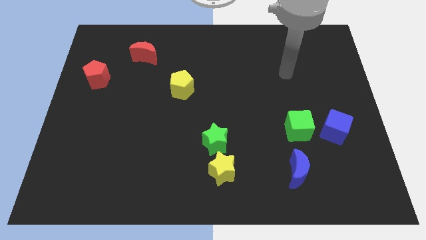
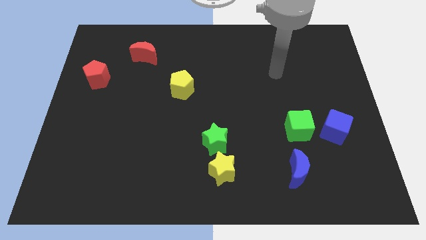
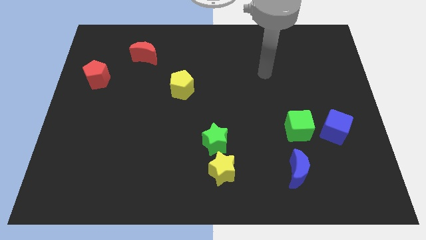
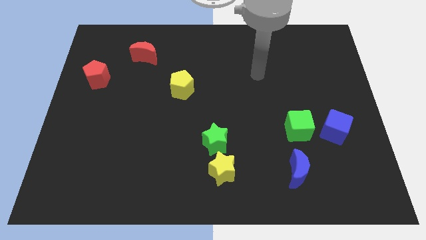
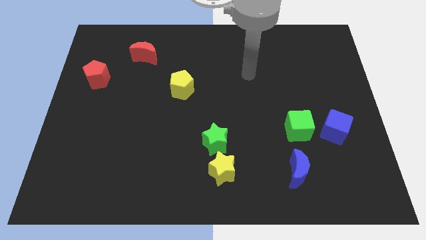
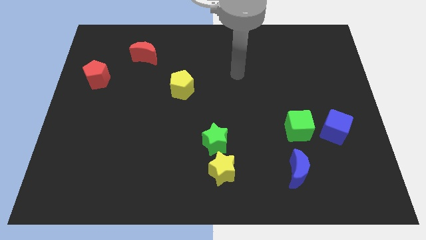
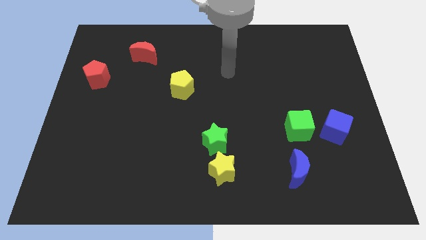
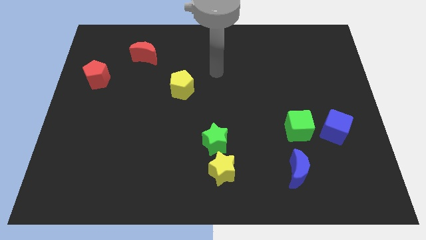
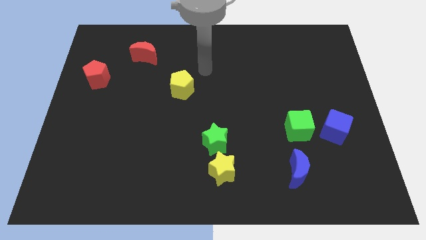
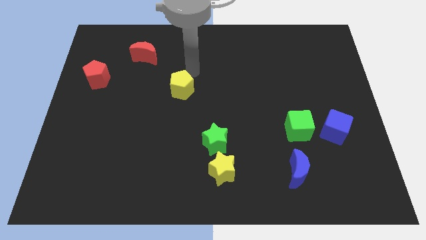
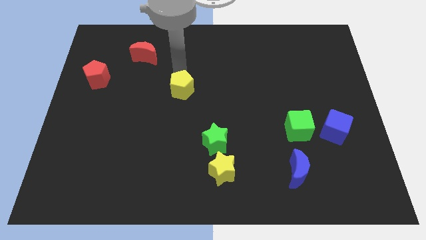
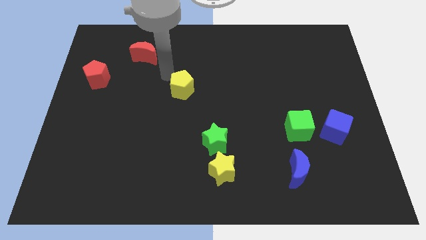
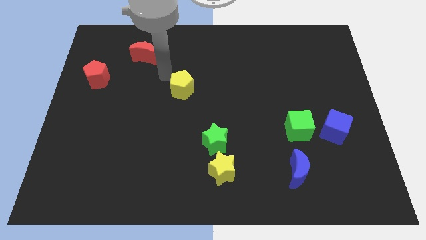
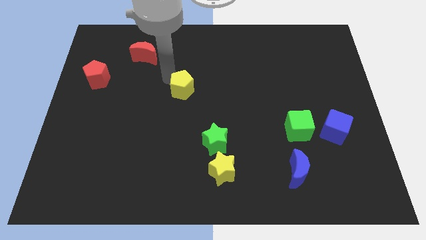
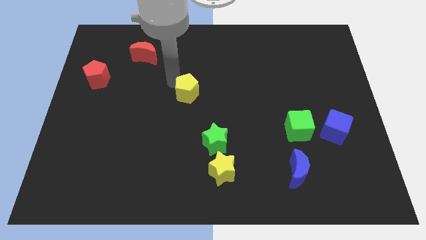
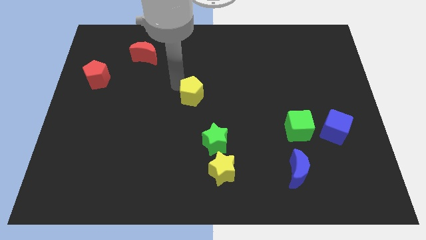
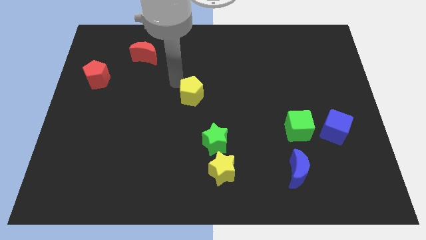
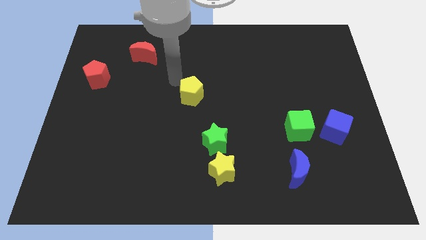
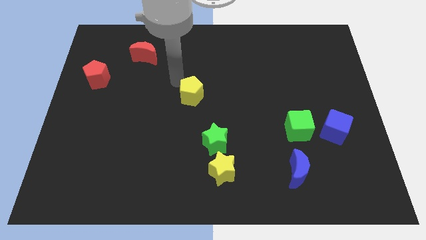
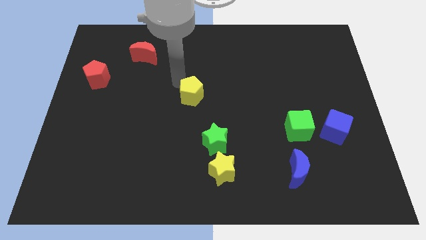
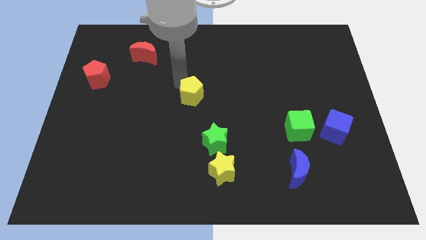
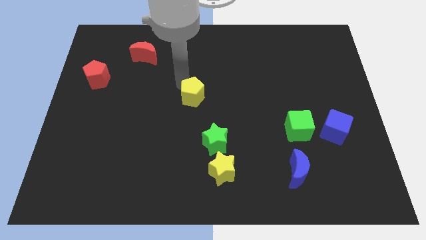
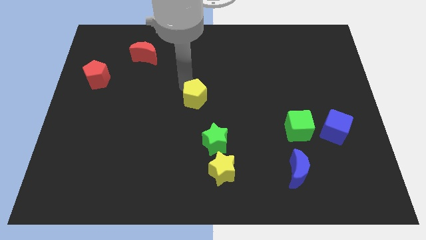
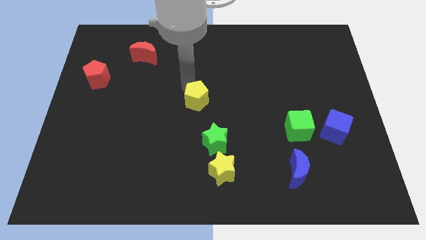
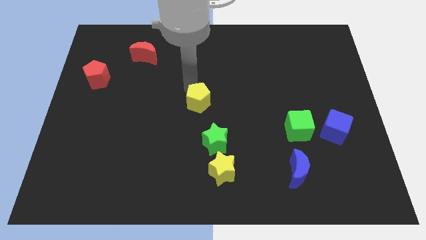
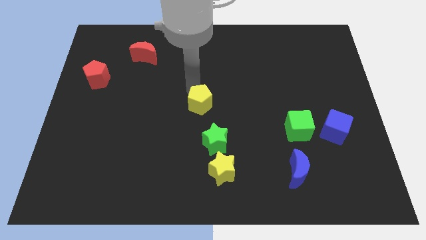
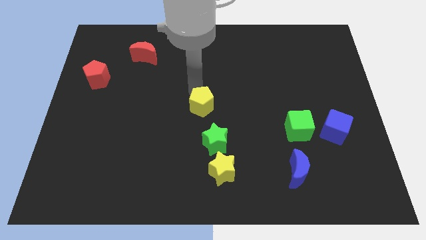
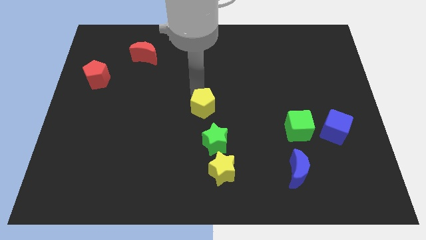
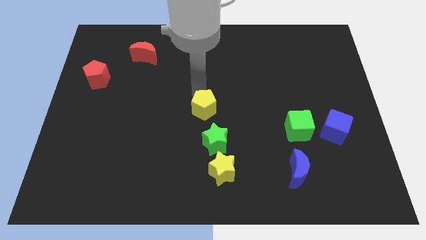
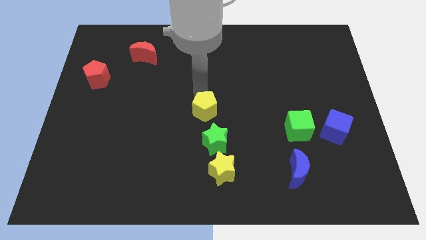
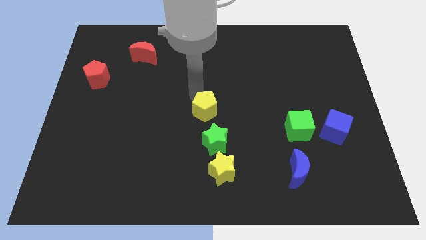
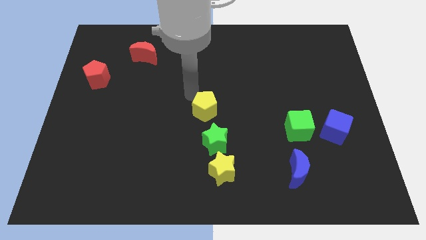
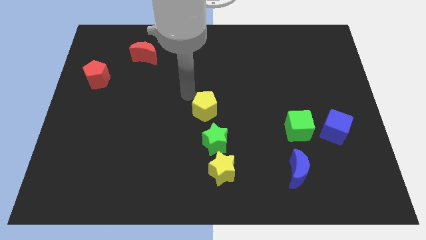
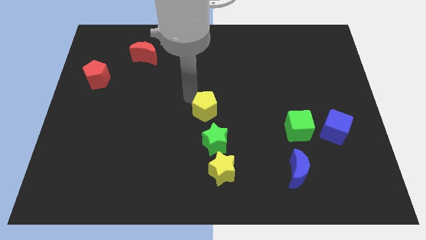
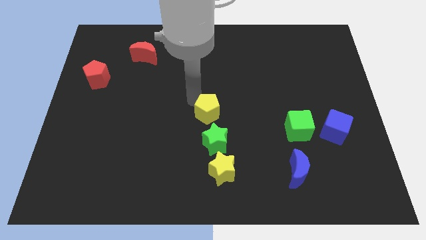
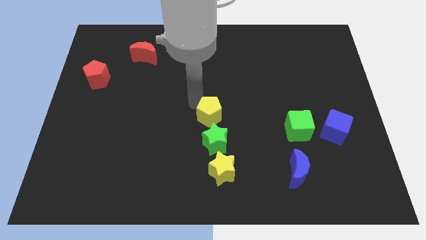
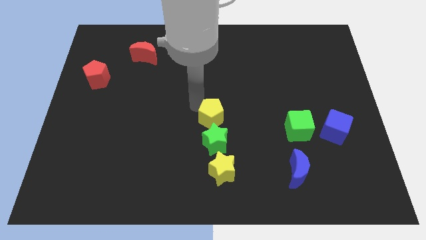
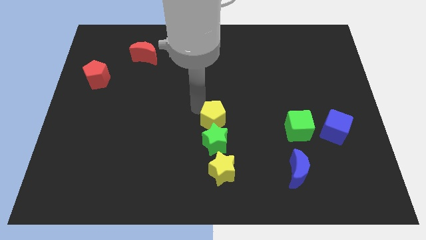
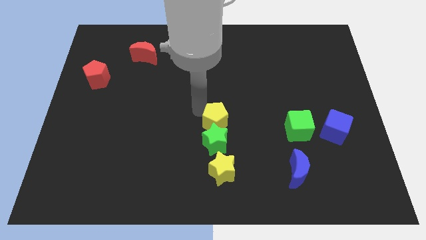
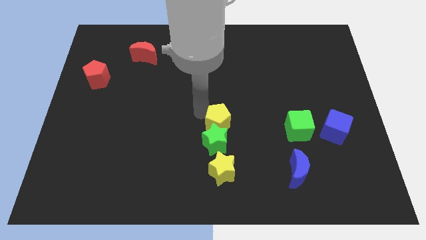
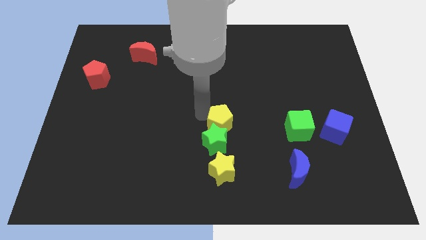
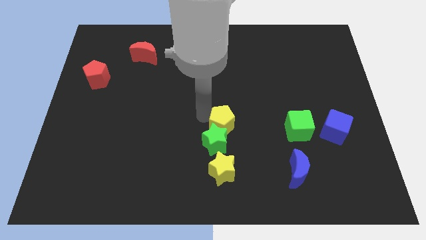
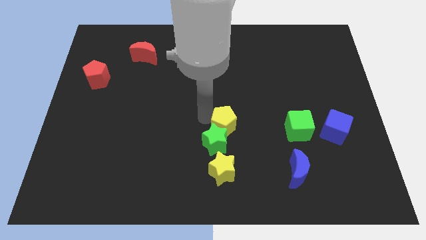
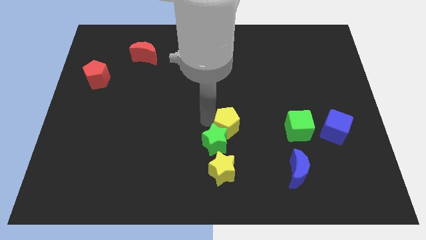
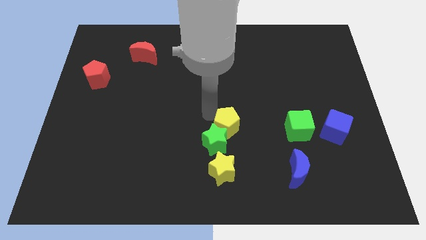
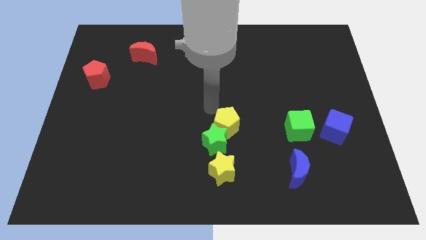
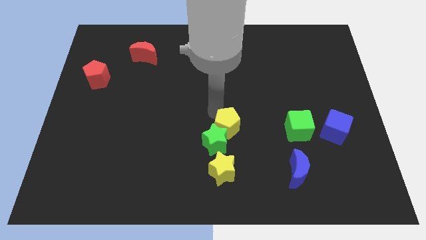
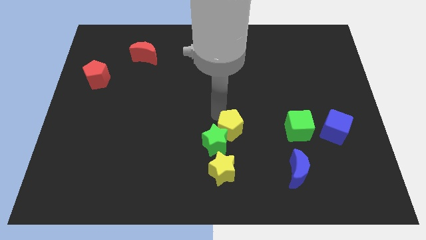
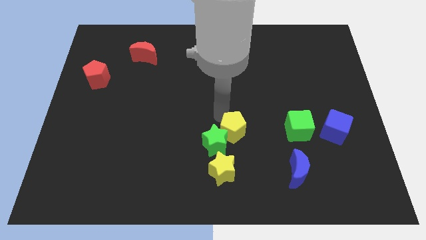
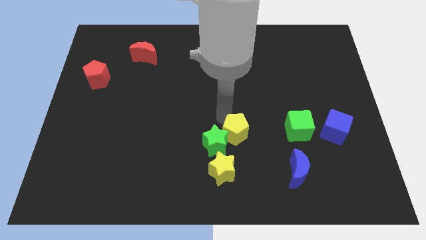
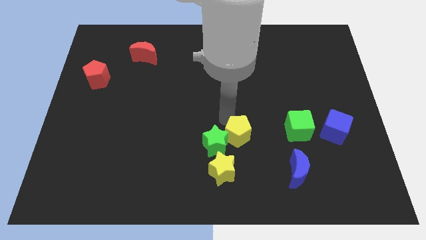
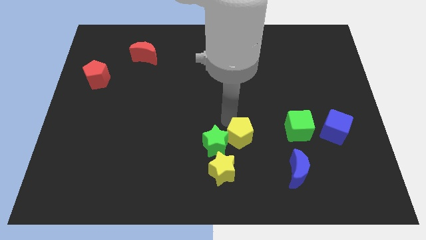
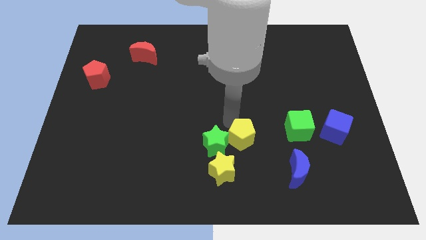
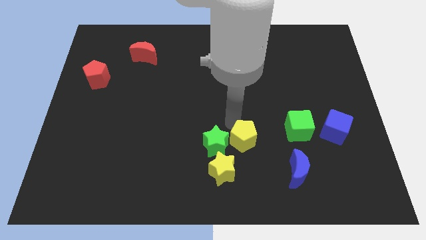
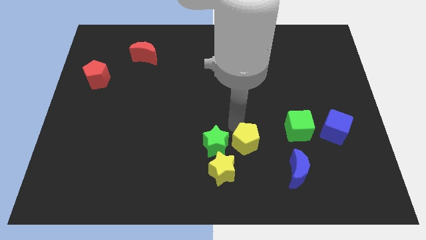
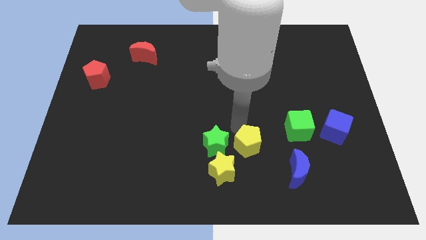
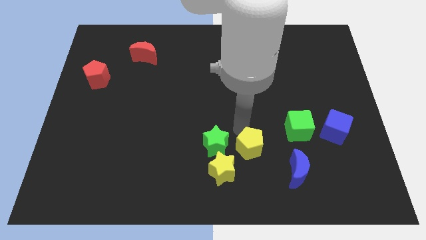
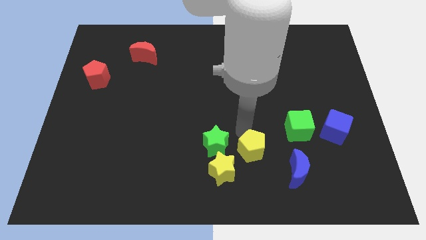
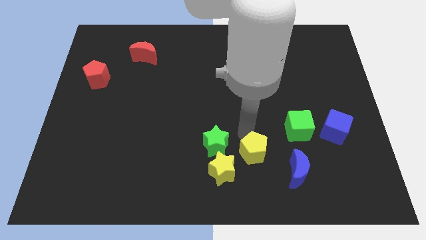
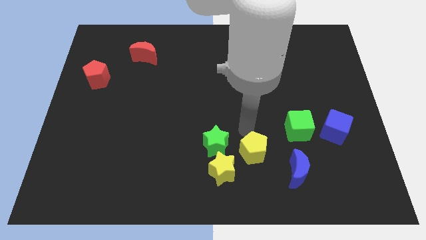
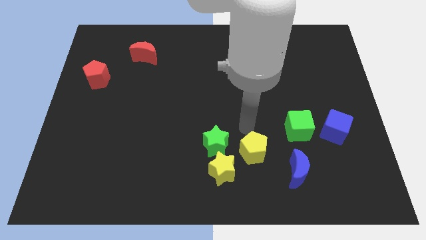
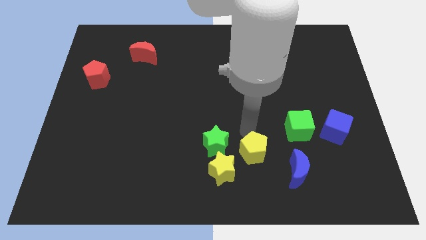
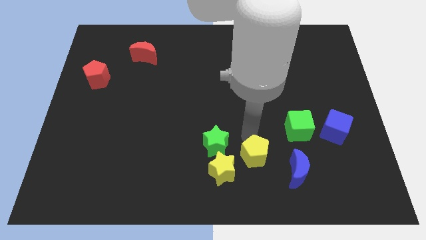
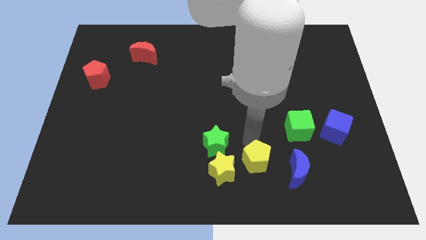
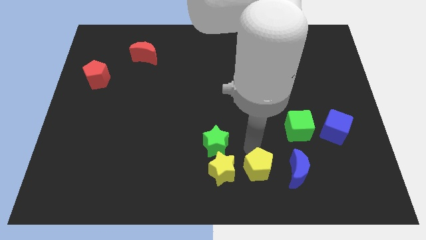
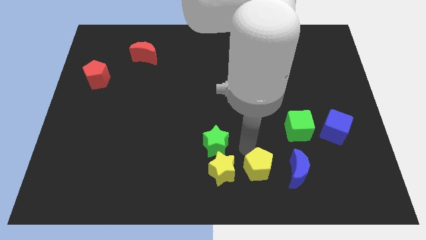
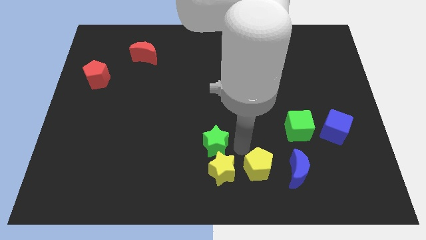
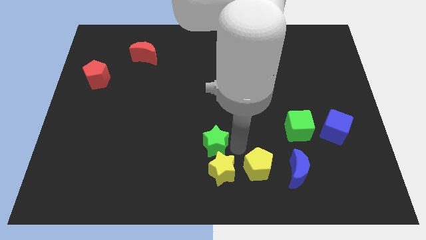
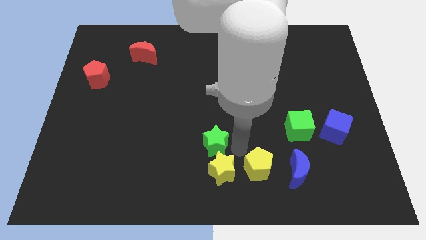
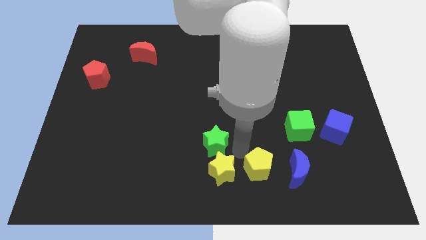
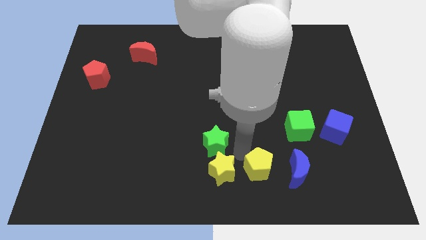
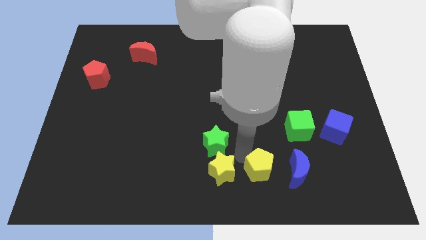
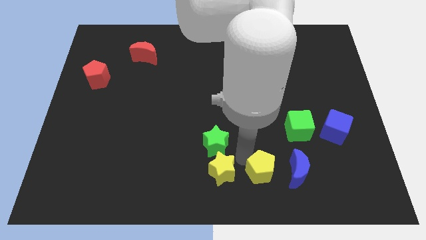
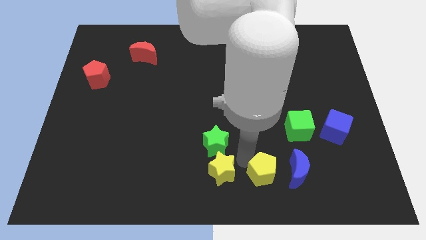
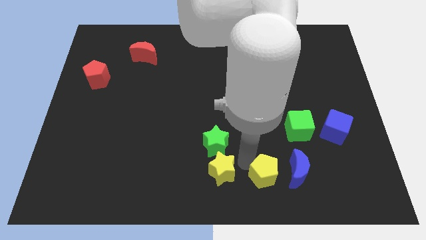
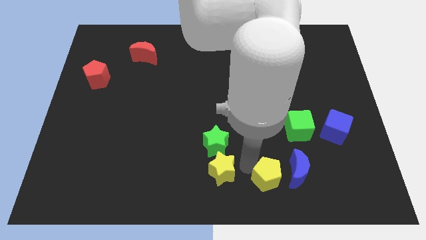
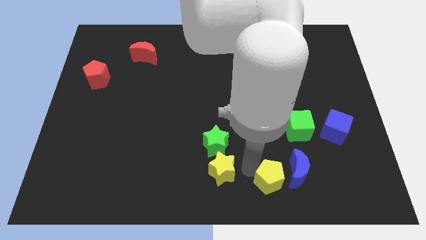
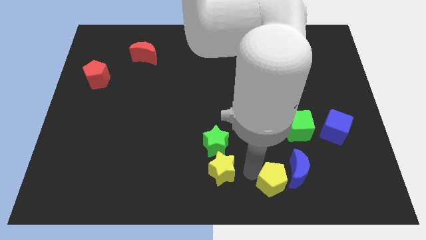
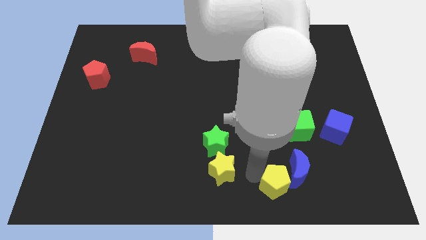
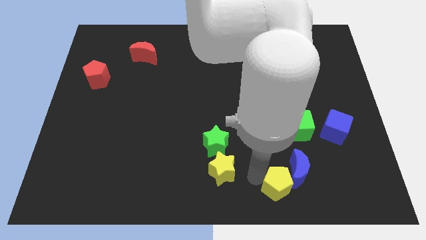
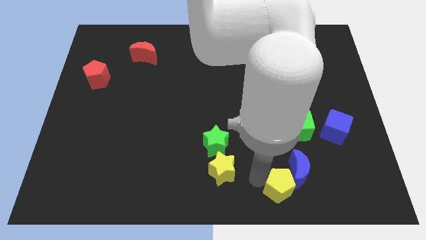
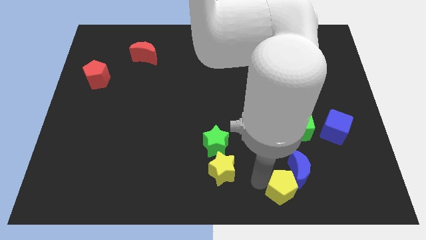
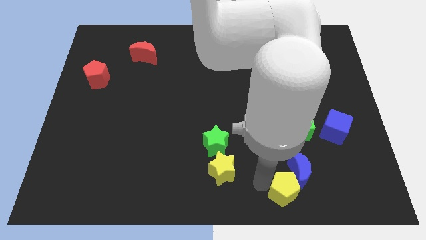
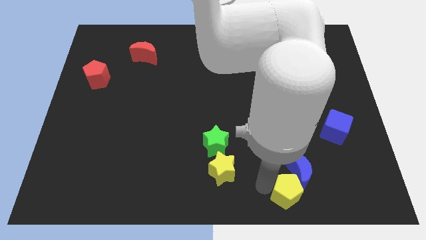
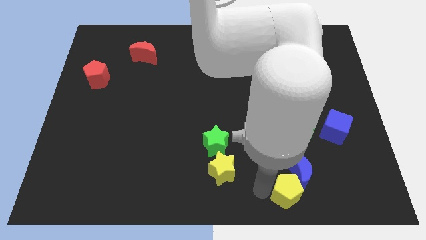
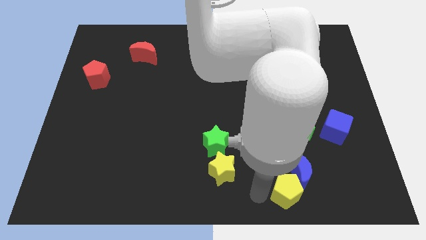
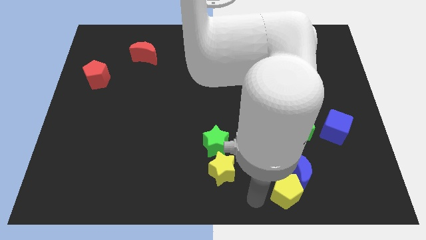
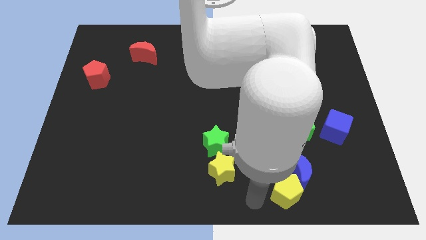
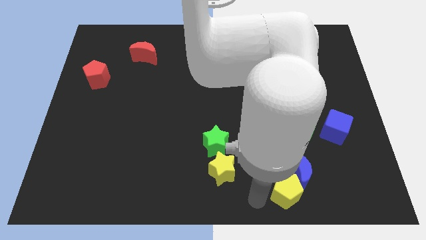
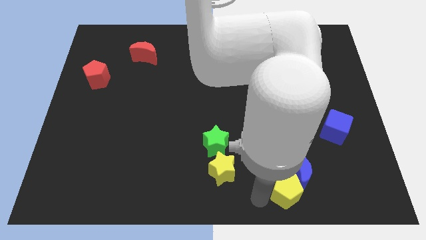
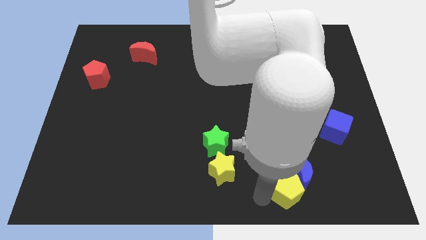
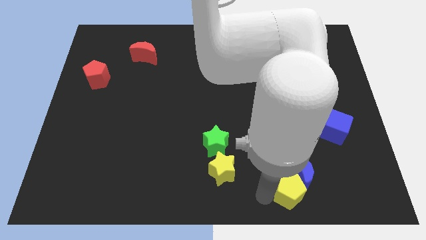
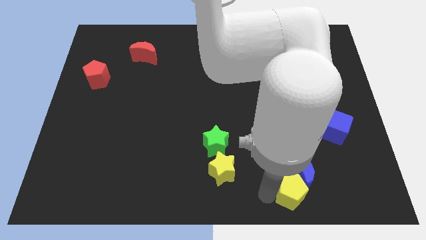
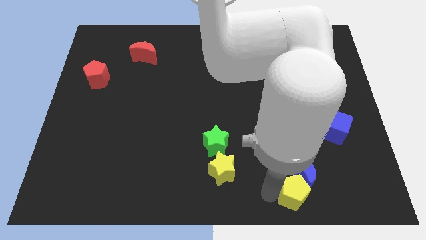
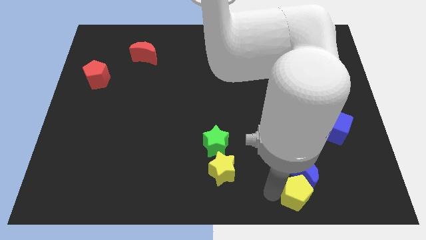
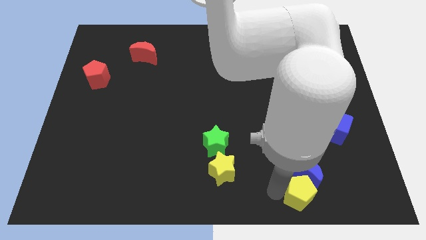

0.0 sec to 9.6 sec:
move the yellow pentagon to the bottom of the green cube
